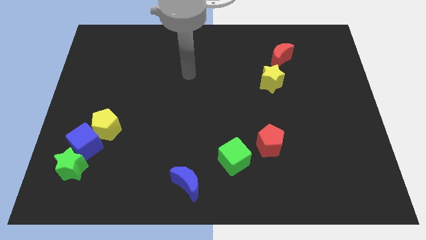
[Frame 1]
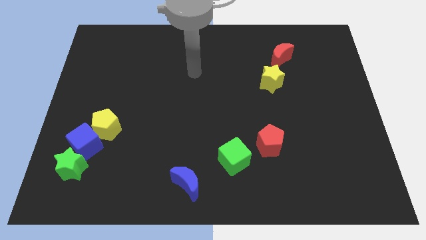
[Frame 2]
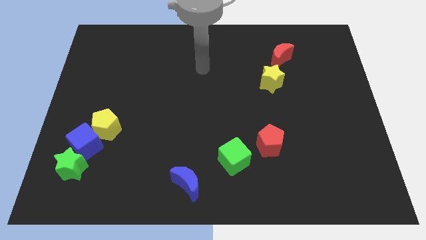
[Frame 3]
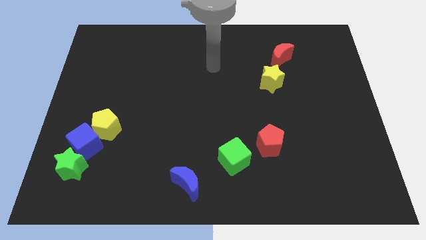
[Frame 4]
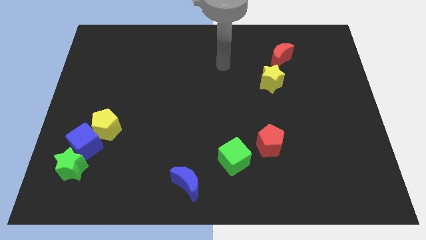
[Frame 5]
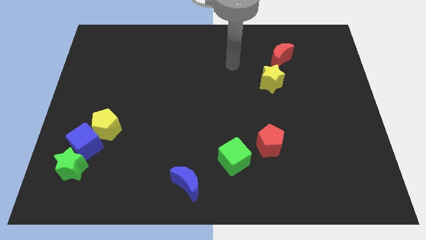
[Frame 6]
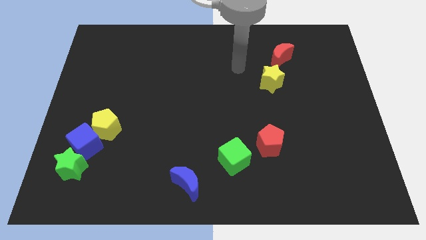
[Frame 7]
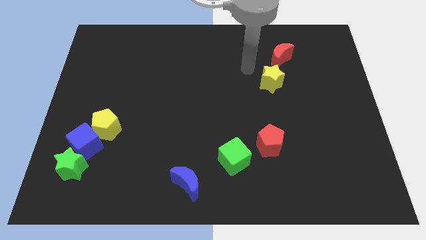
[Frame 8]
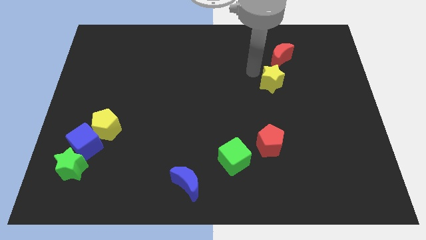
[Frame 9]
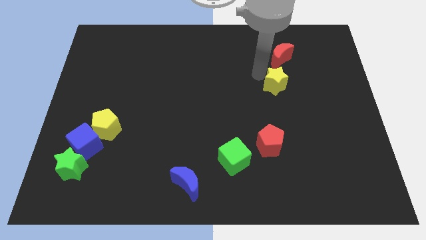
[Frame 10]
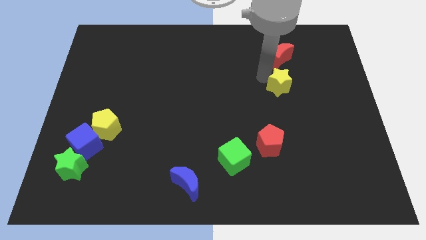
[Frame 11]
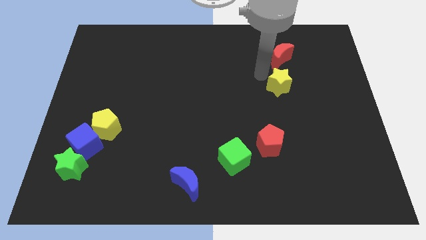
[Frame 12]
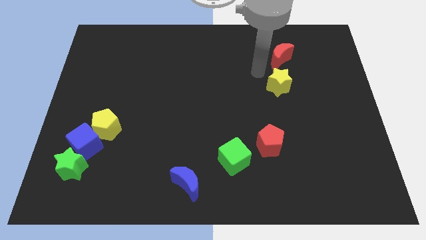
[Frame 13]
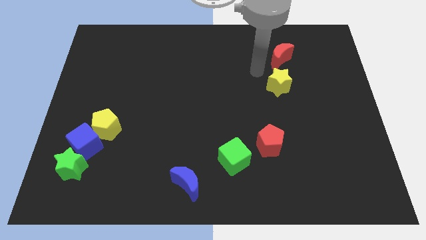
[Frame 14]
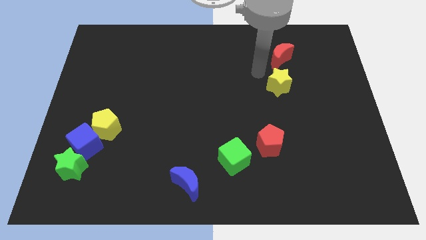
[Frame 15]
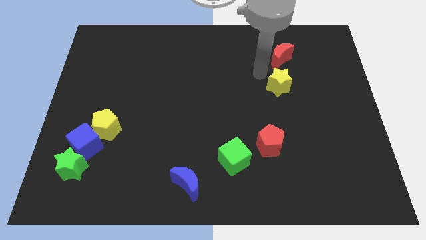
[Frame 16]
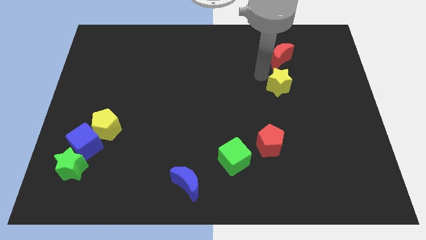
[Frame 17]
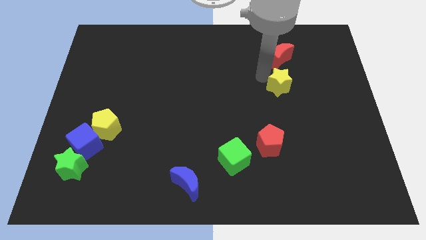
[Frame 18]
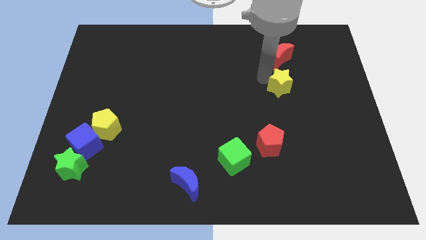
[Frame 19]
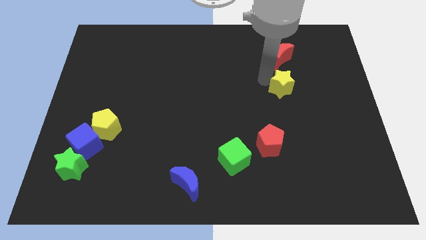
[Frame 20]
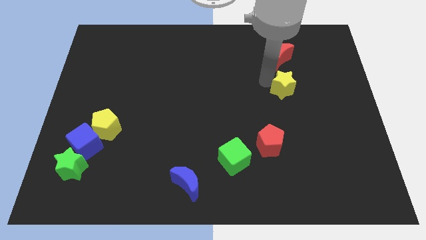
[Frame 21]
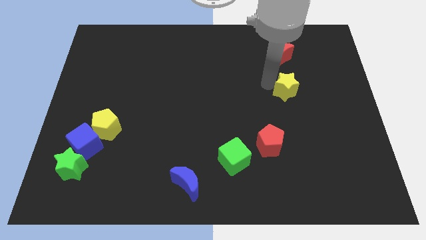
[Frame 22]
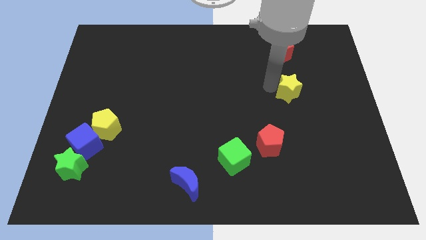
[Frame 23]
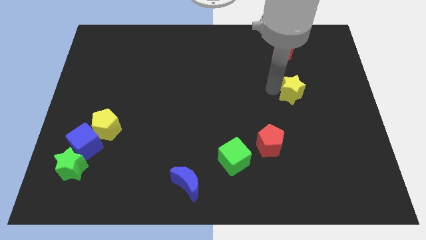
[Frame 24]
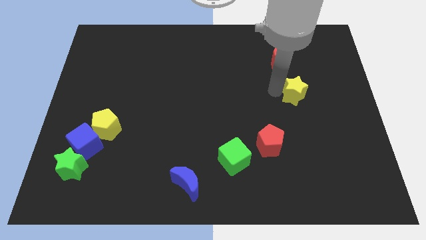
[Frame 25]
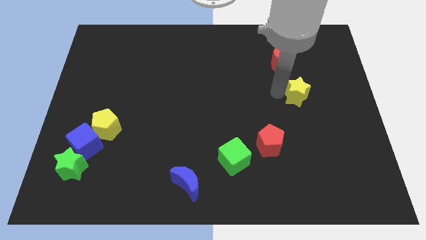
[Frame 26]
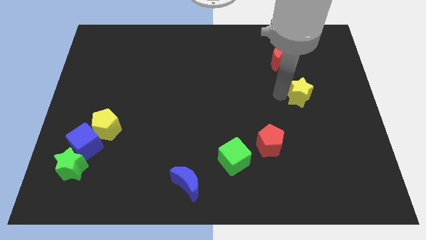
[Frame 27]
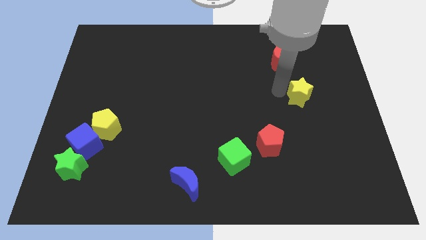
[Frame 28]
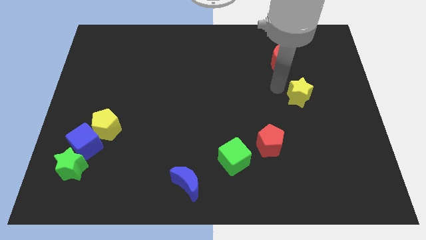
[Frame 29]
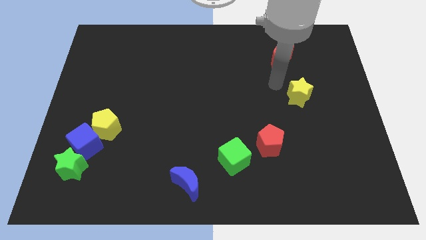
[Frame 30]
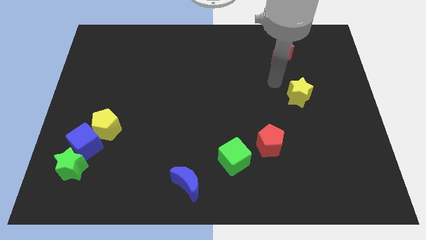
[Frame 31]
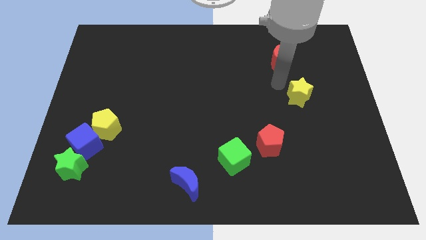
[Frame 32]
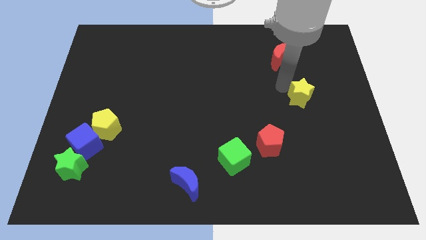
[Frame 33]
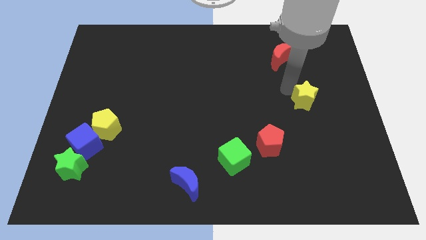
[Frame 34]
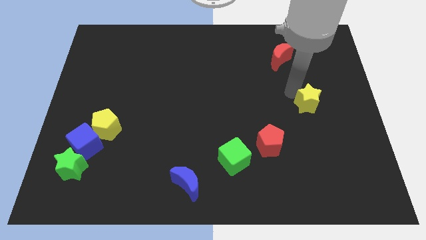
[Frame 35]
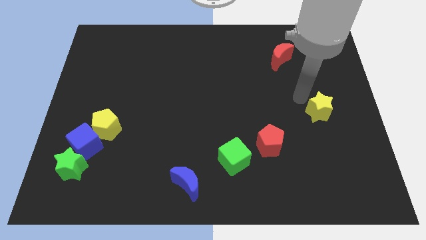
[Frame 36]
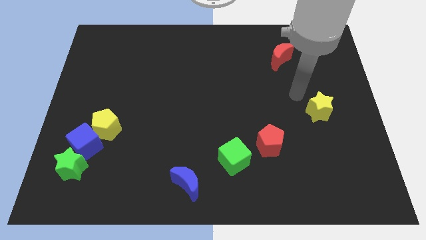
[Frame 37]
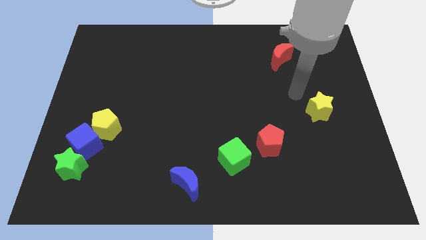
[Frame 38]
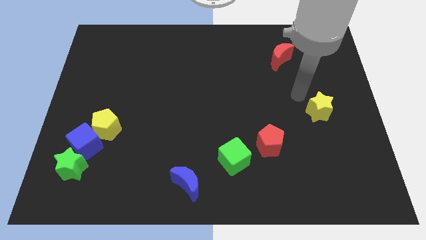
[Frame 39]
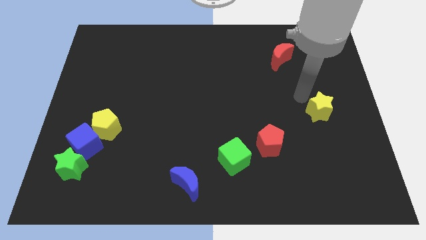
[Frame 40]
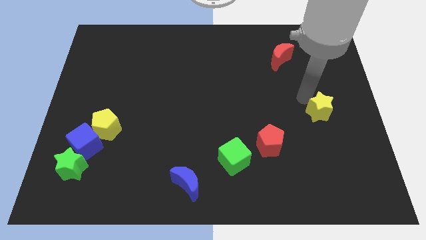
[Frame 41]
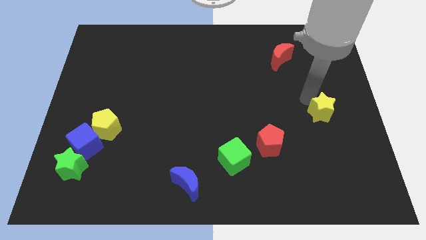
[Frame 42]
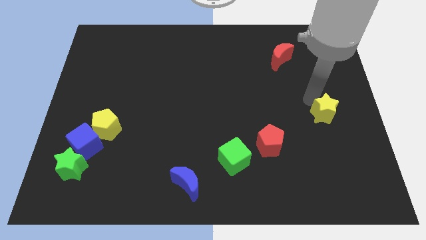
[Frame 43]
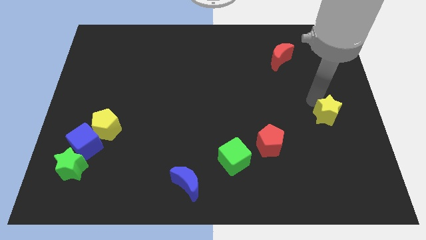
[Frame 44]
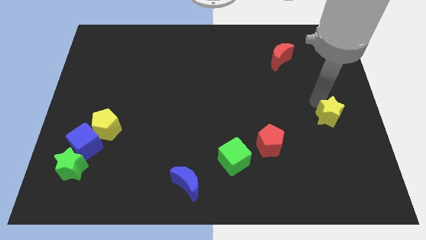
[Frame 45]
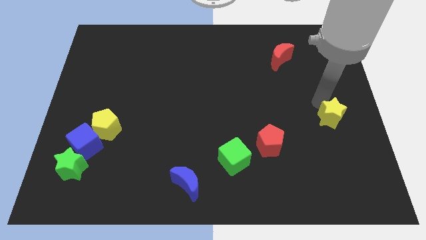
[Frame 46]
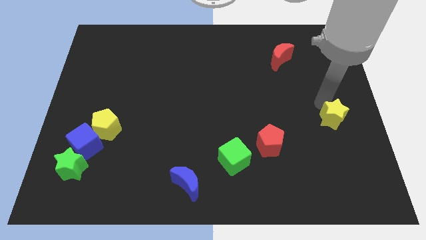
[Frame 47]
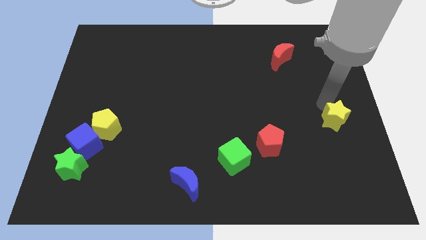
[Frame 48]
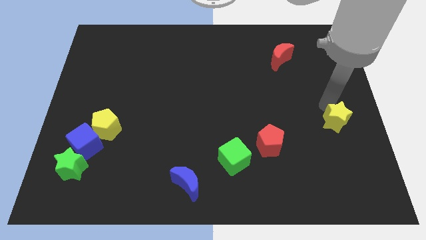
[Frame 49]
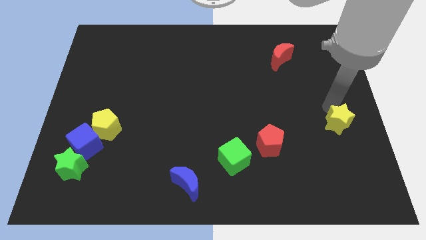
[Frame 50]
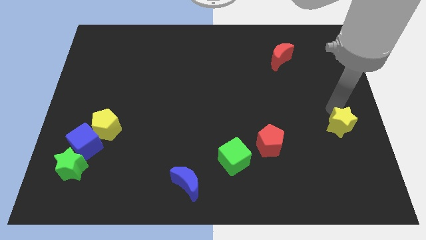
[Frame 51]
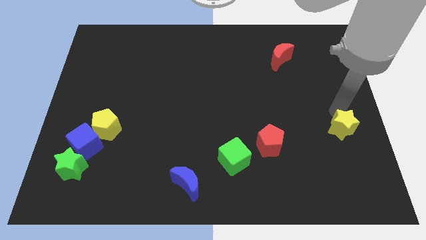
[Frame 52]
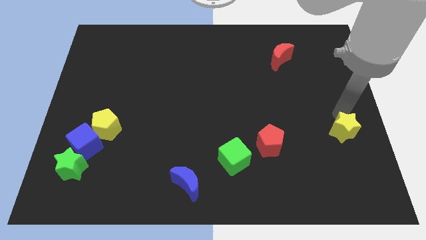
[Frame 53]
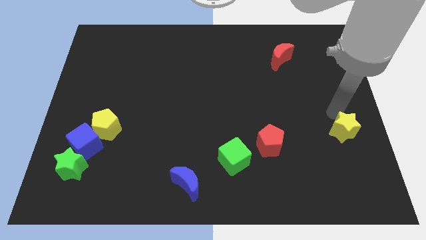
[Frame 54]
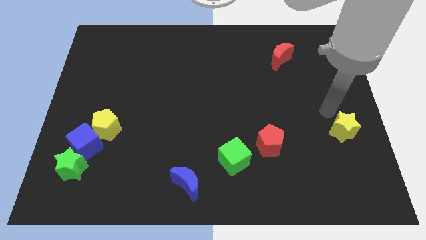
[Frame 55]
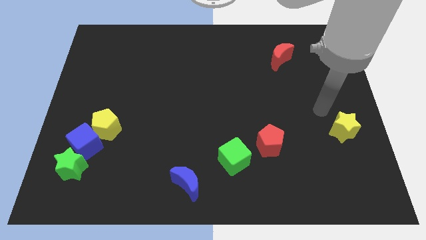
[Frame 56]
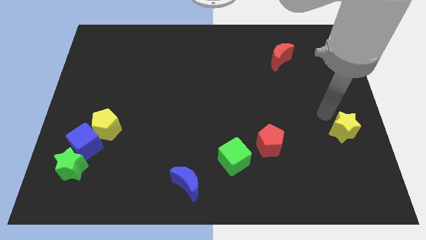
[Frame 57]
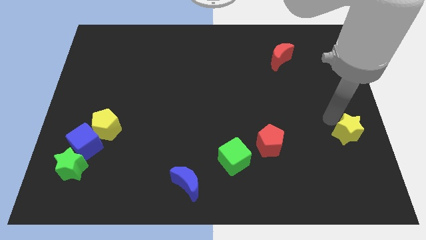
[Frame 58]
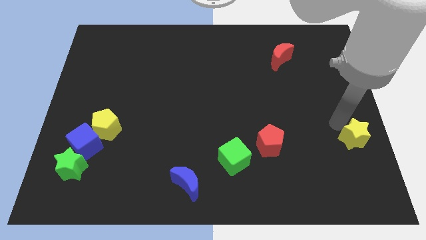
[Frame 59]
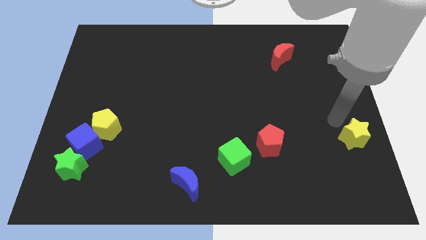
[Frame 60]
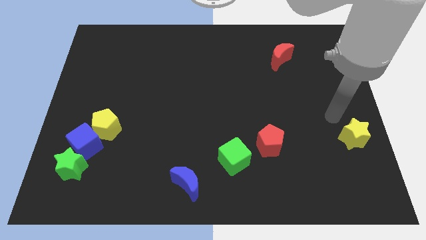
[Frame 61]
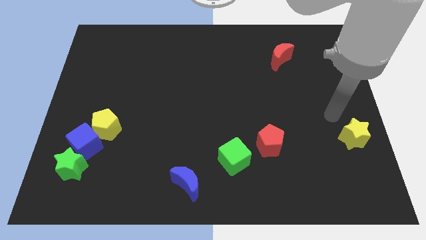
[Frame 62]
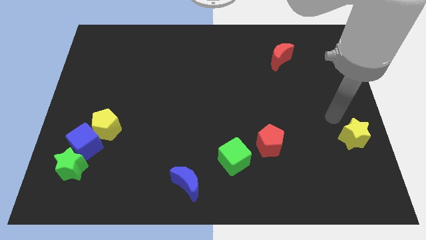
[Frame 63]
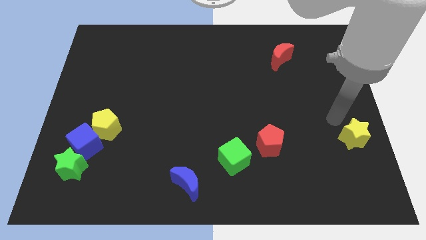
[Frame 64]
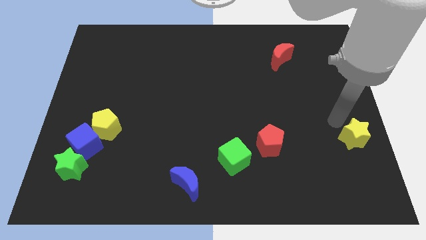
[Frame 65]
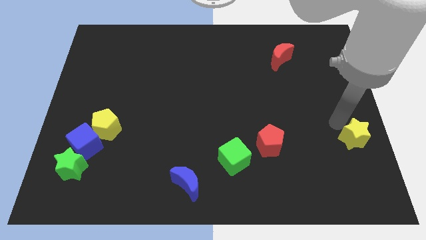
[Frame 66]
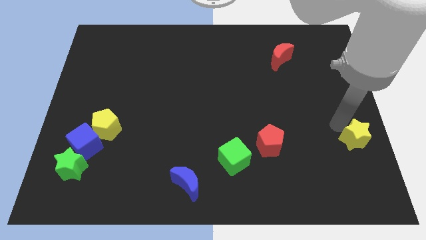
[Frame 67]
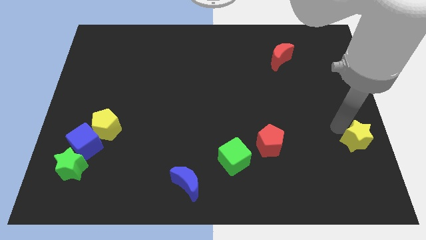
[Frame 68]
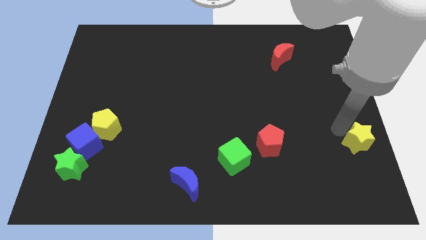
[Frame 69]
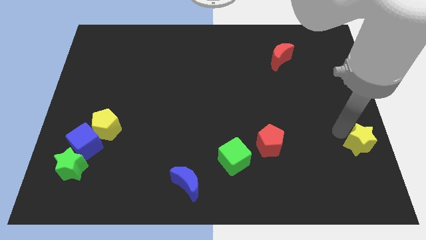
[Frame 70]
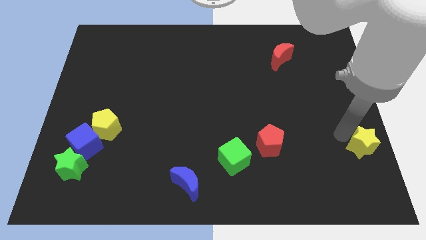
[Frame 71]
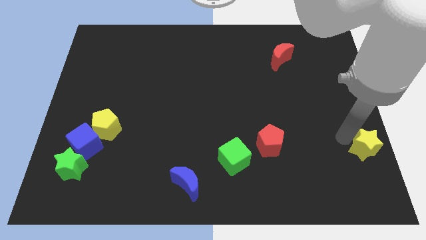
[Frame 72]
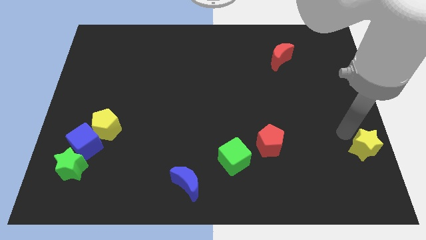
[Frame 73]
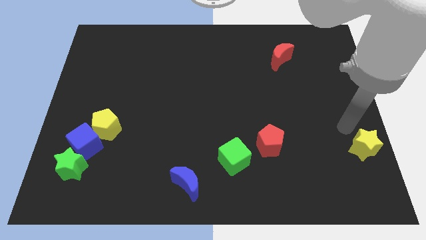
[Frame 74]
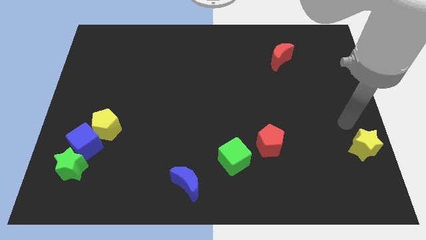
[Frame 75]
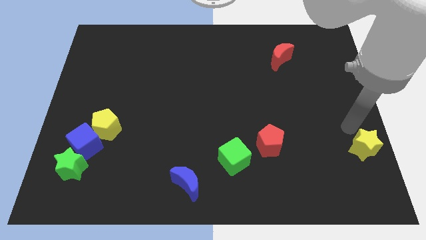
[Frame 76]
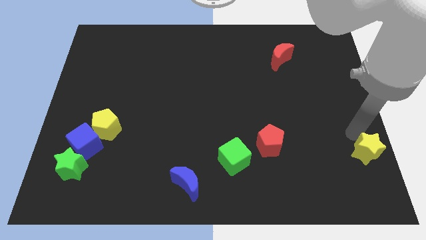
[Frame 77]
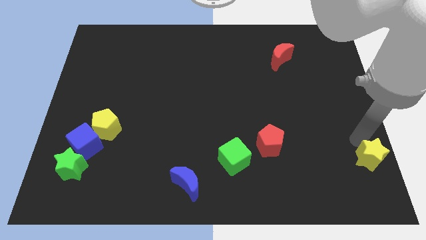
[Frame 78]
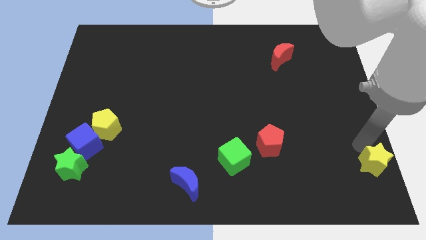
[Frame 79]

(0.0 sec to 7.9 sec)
move the yellow star to the bottom right corner

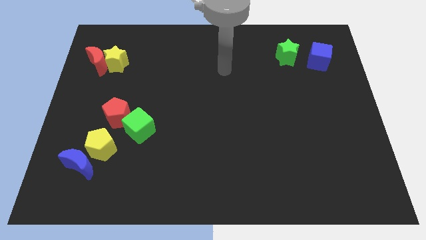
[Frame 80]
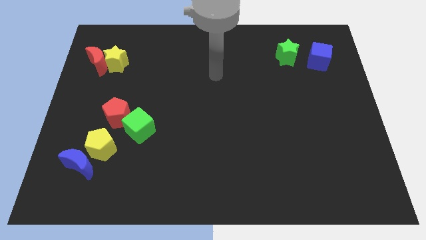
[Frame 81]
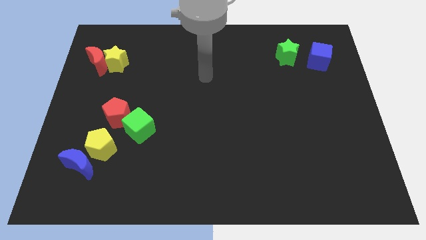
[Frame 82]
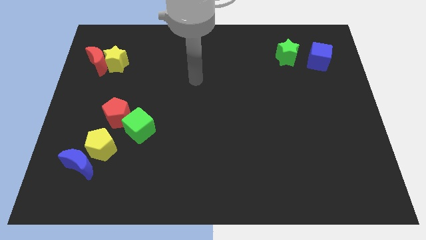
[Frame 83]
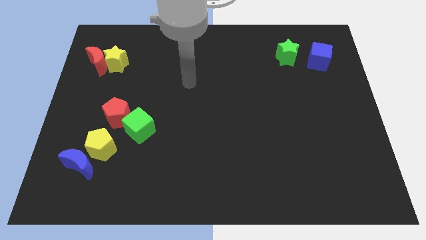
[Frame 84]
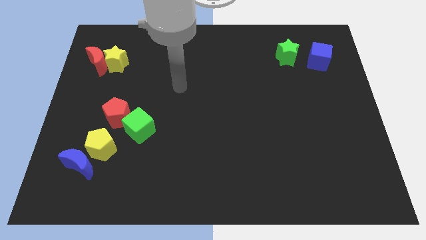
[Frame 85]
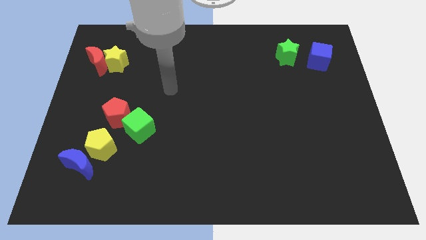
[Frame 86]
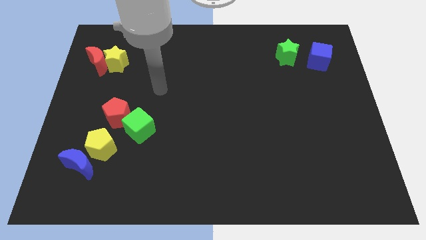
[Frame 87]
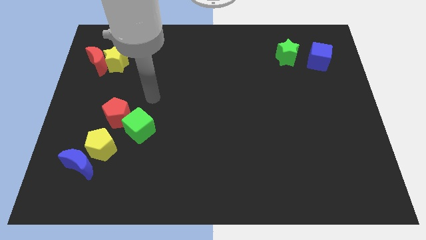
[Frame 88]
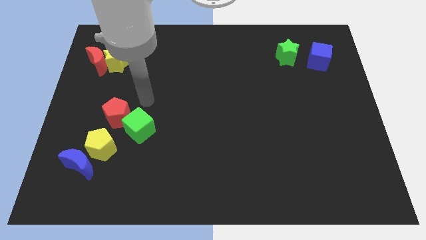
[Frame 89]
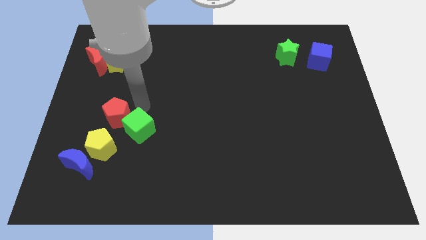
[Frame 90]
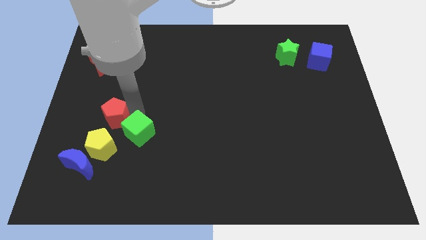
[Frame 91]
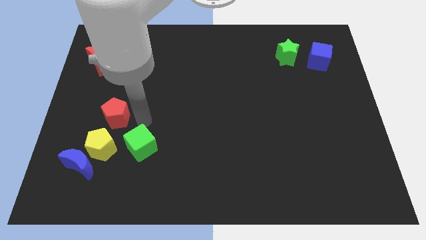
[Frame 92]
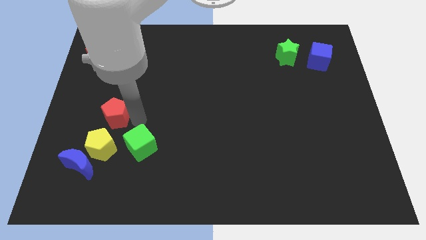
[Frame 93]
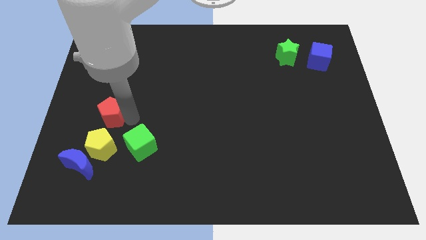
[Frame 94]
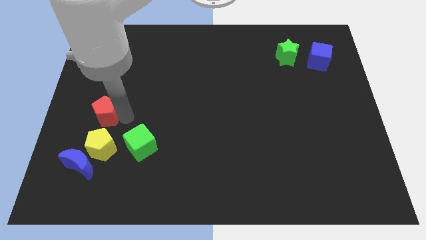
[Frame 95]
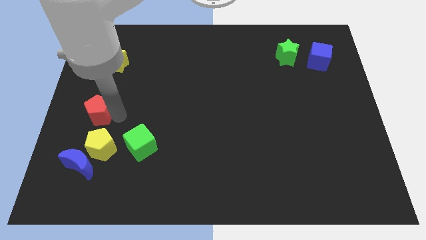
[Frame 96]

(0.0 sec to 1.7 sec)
put the red pentagon to the left side
